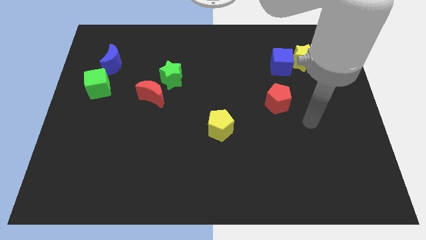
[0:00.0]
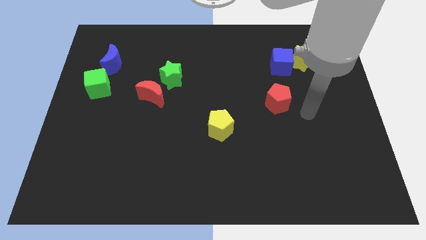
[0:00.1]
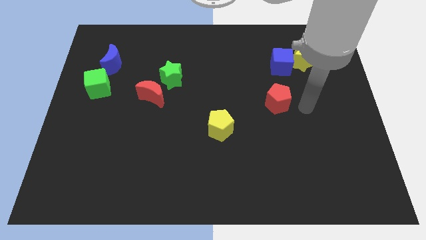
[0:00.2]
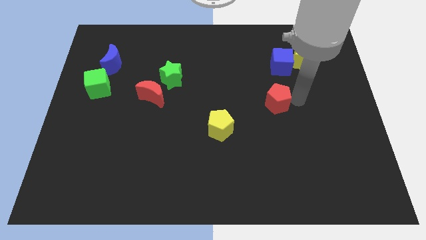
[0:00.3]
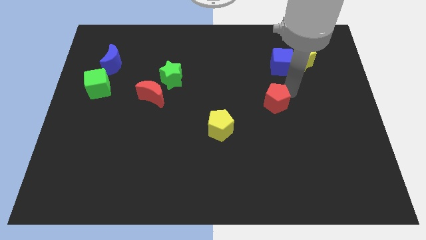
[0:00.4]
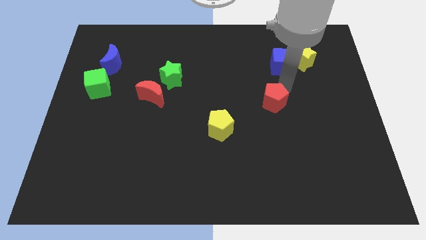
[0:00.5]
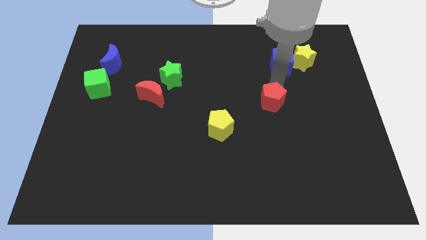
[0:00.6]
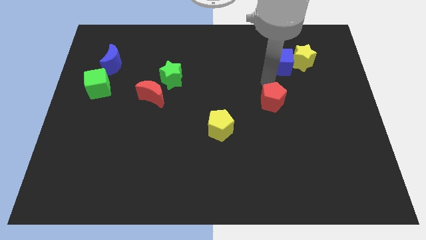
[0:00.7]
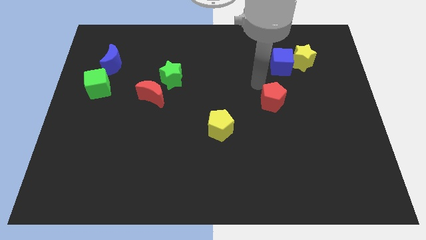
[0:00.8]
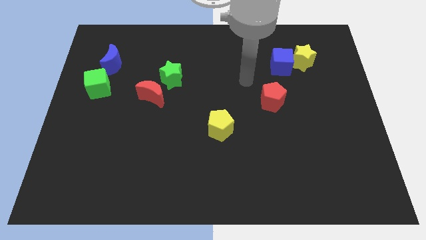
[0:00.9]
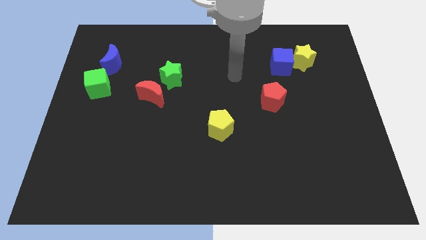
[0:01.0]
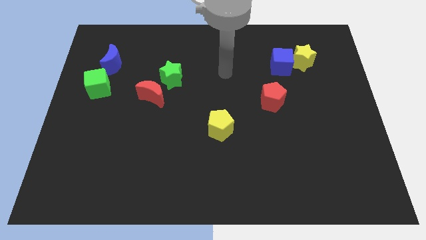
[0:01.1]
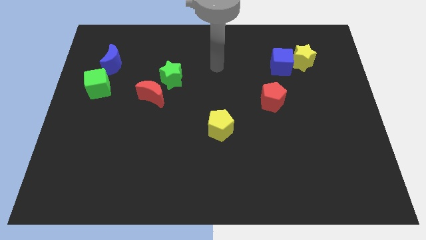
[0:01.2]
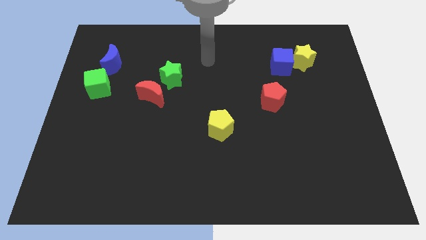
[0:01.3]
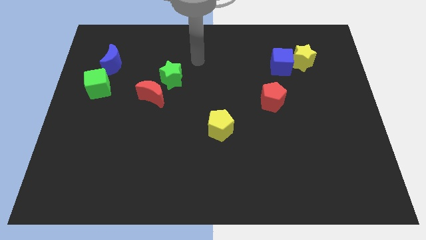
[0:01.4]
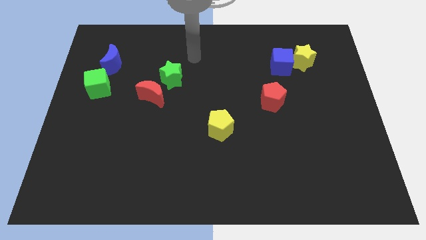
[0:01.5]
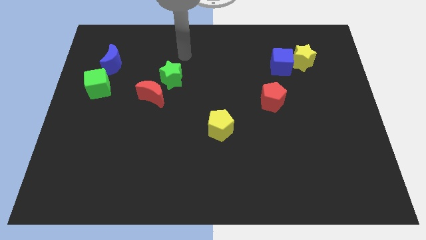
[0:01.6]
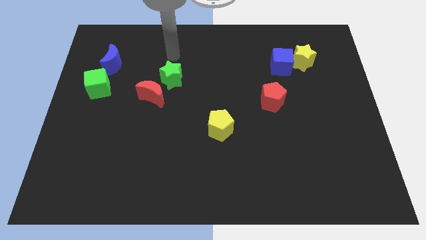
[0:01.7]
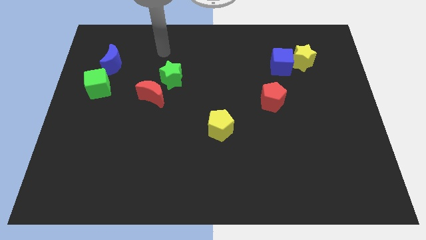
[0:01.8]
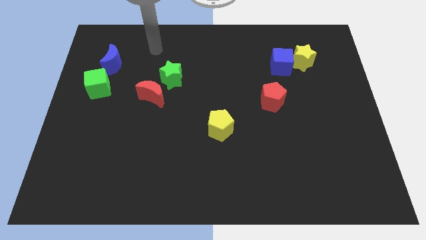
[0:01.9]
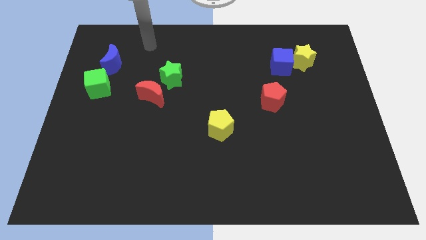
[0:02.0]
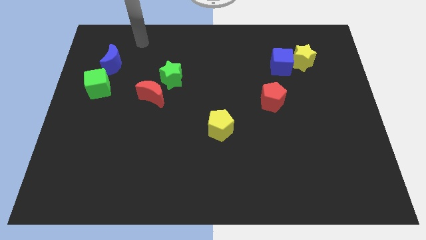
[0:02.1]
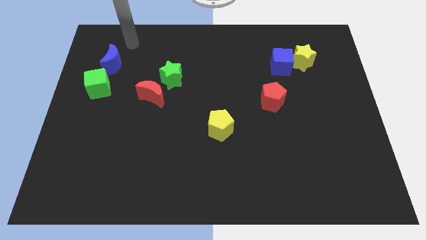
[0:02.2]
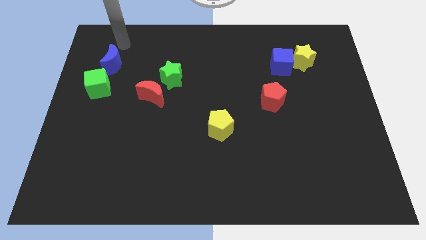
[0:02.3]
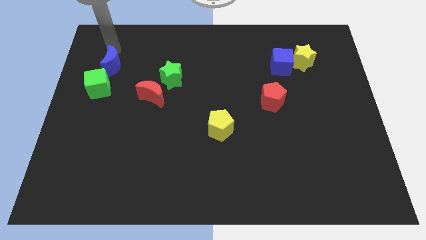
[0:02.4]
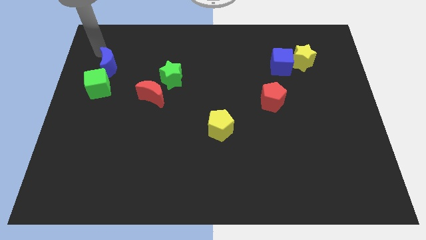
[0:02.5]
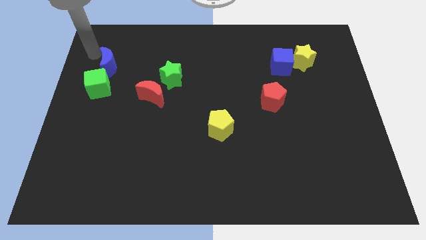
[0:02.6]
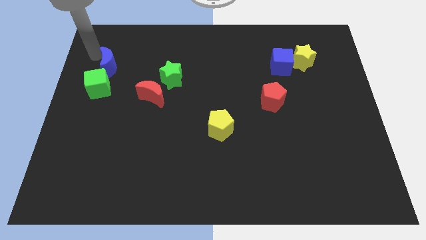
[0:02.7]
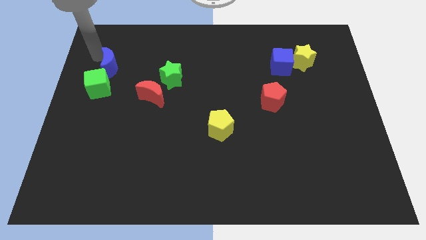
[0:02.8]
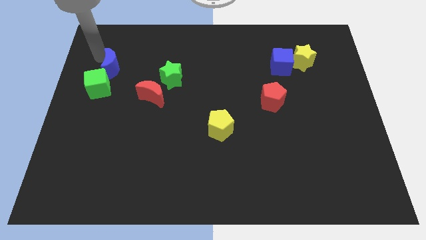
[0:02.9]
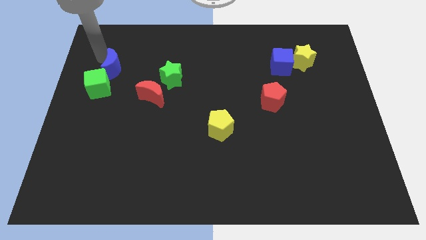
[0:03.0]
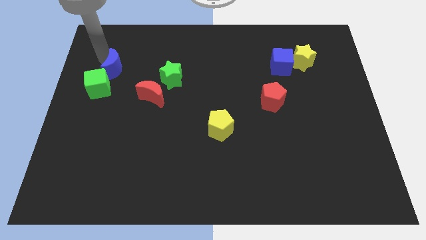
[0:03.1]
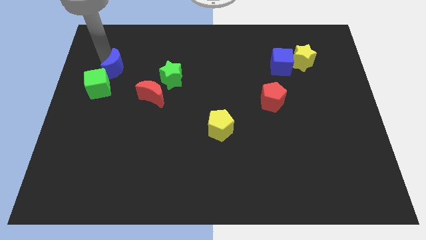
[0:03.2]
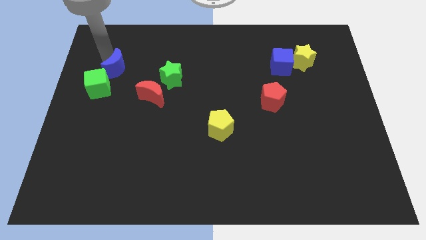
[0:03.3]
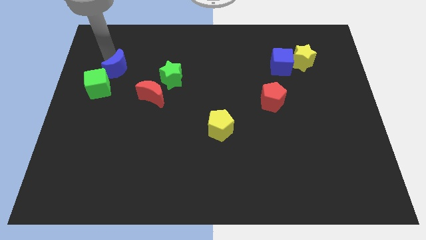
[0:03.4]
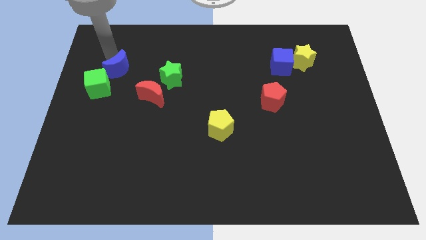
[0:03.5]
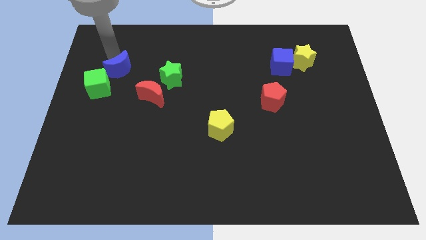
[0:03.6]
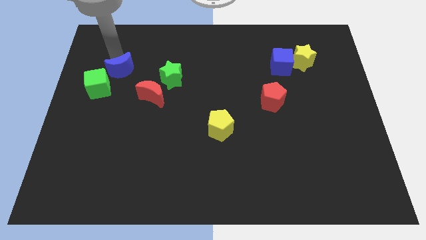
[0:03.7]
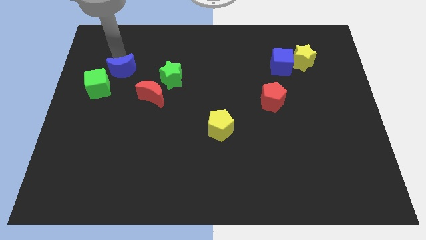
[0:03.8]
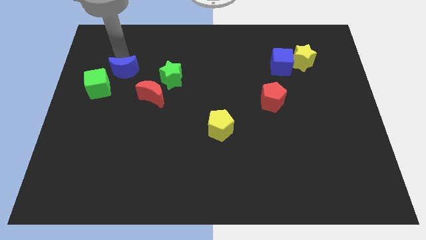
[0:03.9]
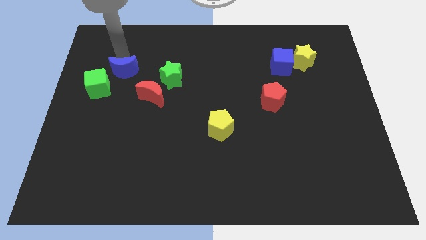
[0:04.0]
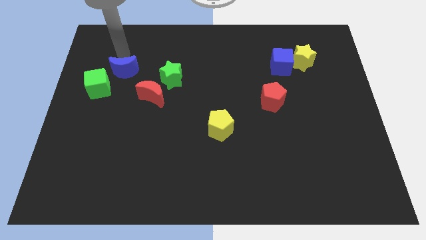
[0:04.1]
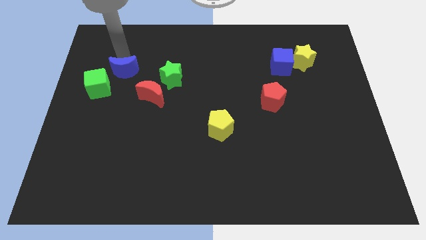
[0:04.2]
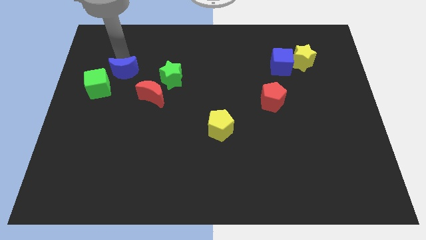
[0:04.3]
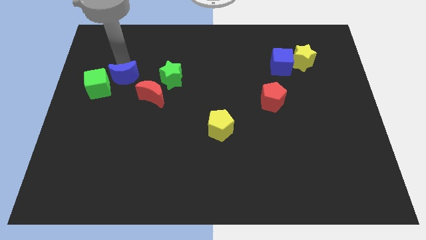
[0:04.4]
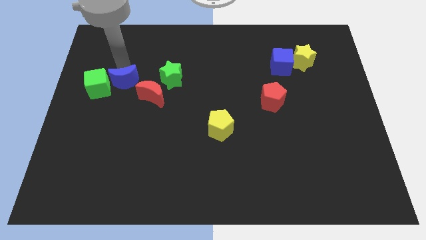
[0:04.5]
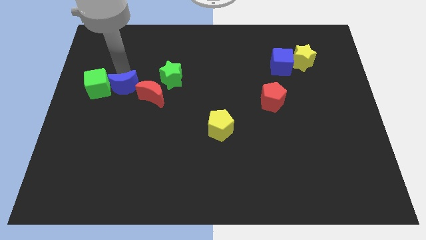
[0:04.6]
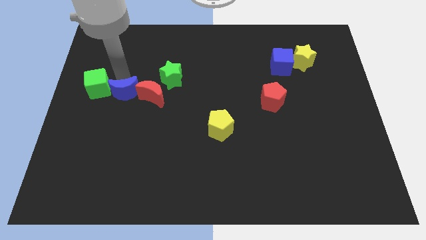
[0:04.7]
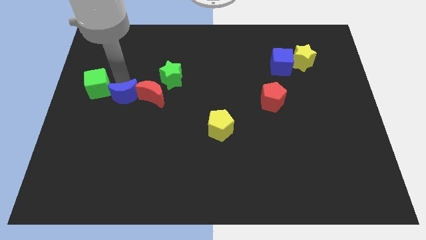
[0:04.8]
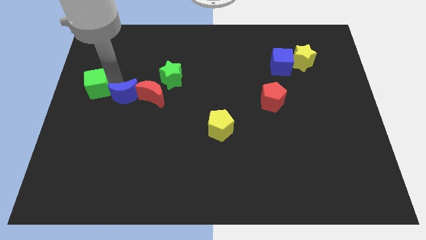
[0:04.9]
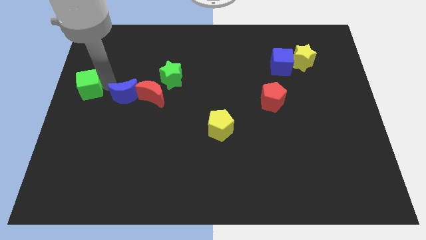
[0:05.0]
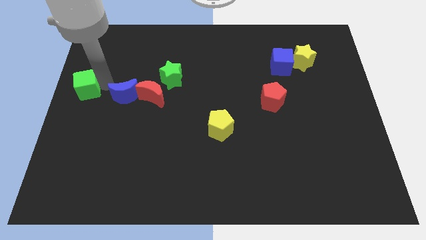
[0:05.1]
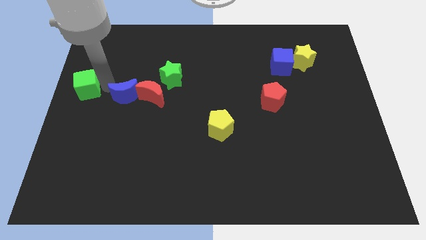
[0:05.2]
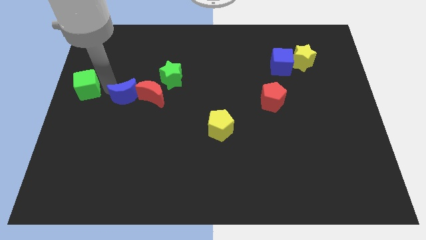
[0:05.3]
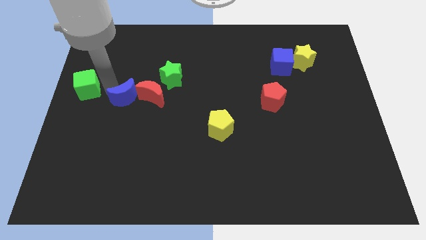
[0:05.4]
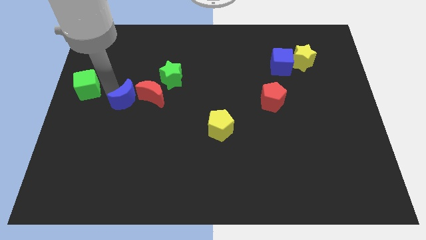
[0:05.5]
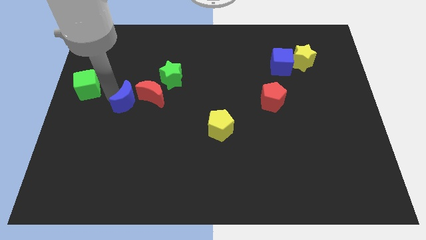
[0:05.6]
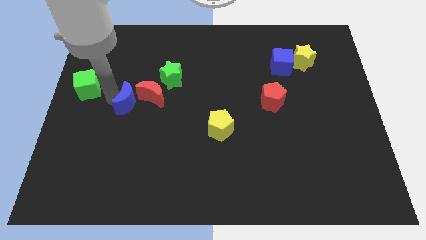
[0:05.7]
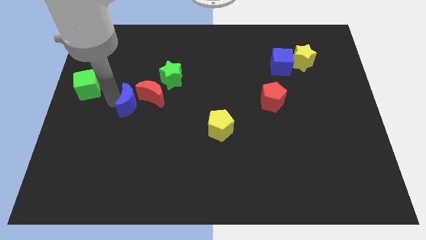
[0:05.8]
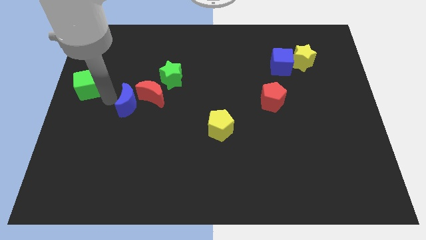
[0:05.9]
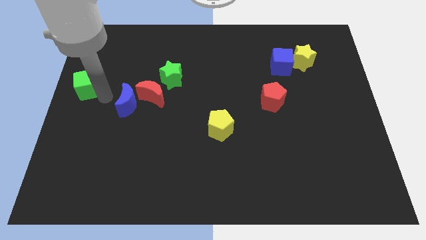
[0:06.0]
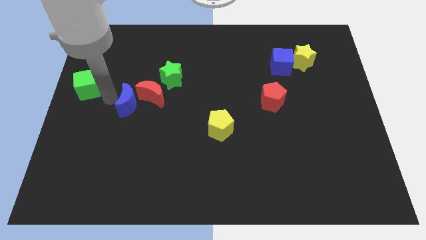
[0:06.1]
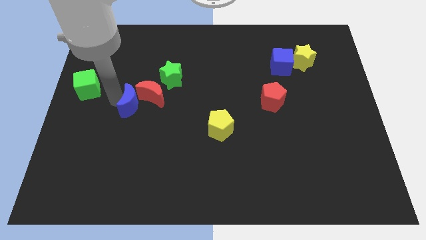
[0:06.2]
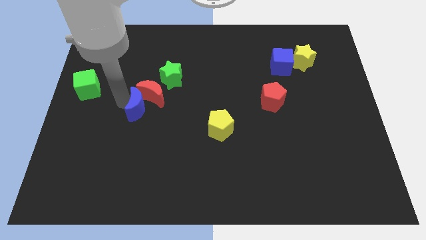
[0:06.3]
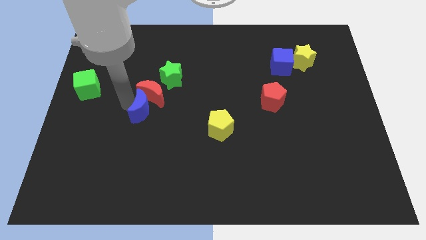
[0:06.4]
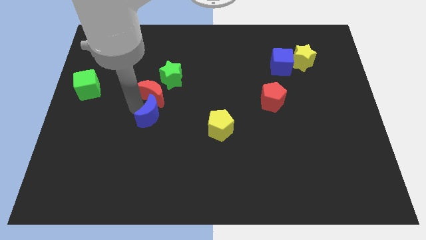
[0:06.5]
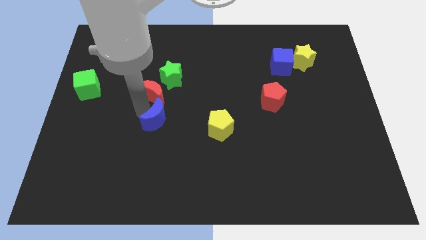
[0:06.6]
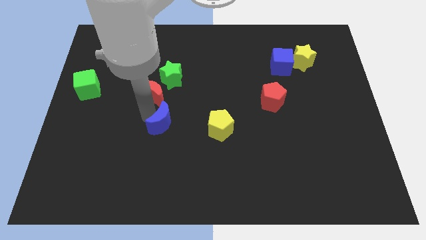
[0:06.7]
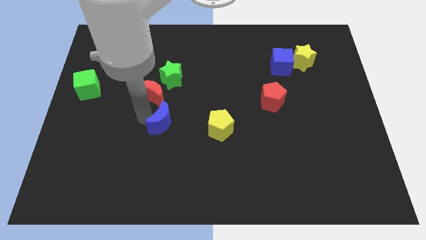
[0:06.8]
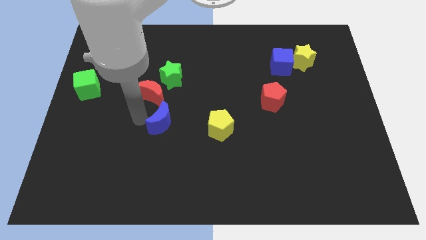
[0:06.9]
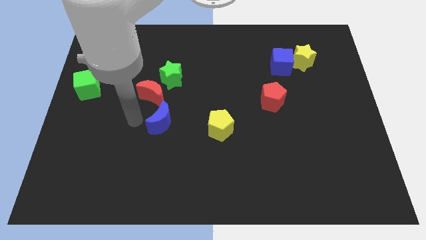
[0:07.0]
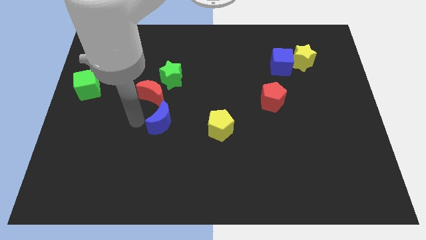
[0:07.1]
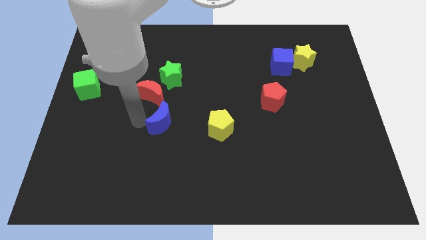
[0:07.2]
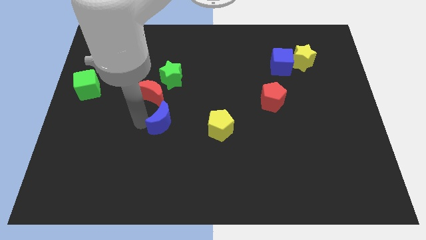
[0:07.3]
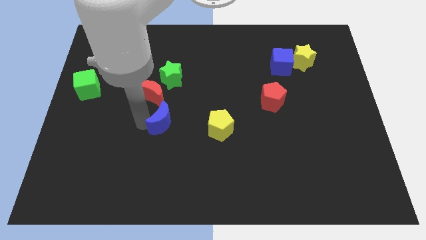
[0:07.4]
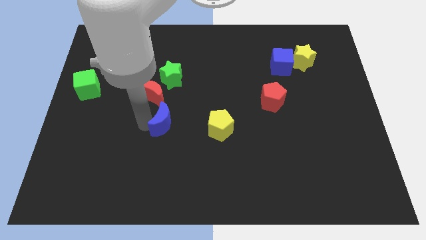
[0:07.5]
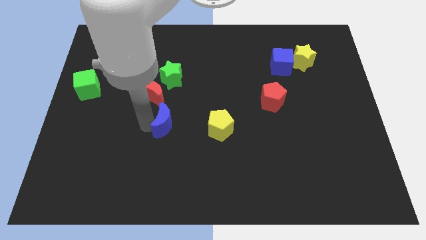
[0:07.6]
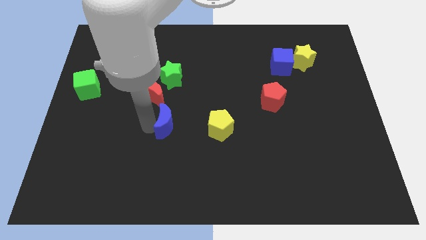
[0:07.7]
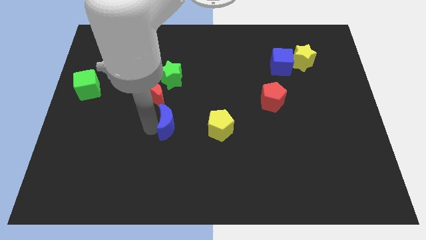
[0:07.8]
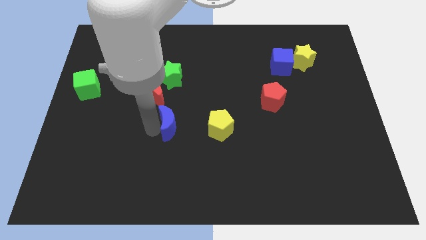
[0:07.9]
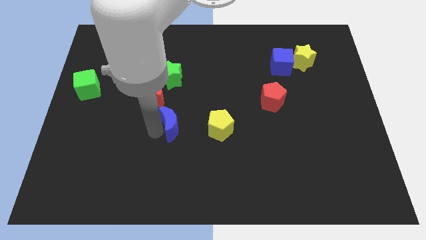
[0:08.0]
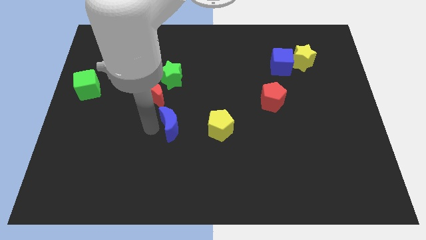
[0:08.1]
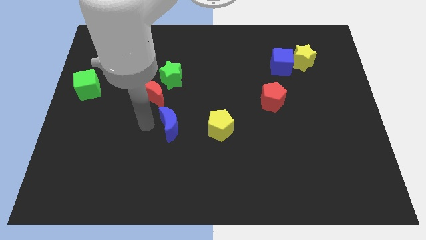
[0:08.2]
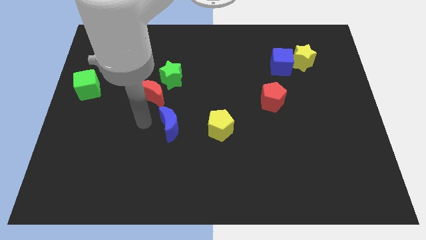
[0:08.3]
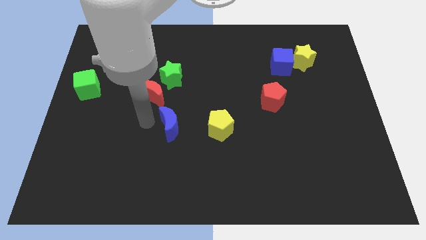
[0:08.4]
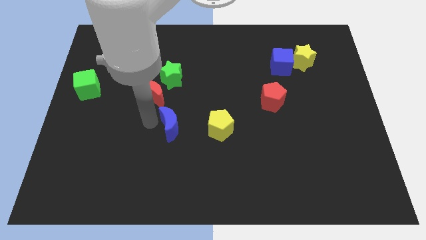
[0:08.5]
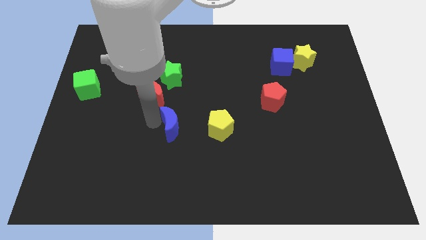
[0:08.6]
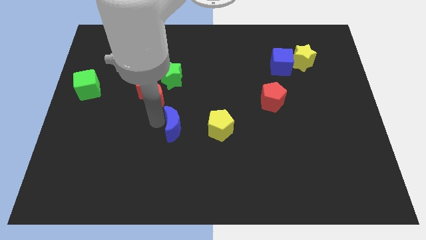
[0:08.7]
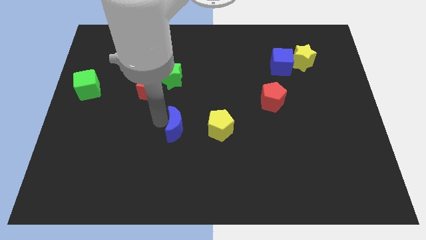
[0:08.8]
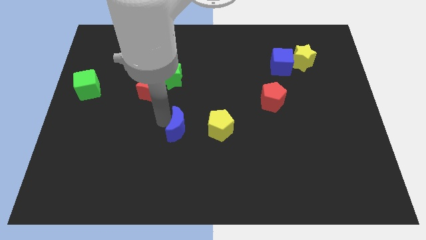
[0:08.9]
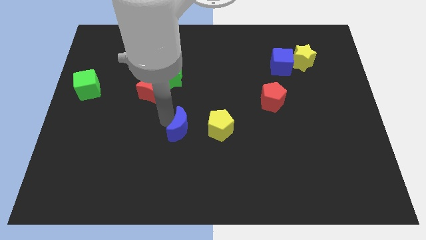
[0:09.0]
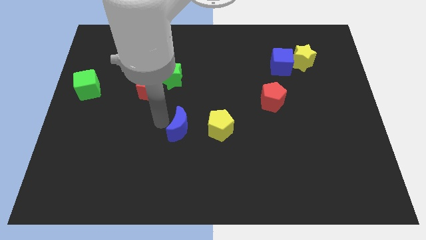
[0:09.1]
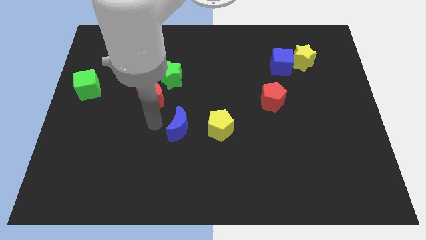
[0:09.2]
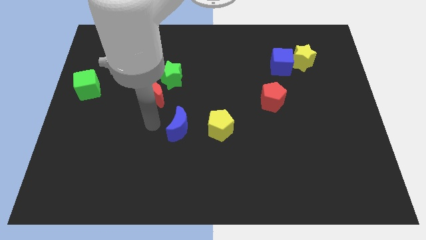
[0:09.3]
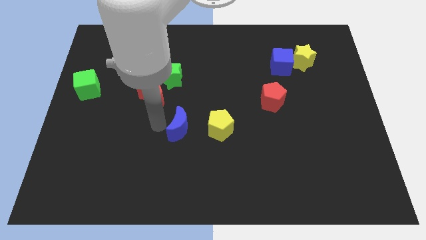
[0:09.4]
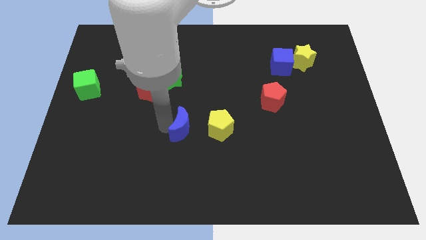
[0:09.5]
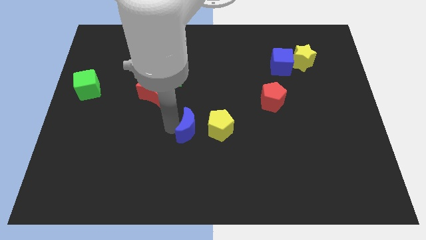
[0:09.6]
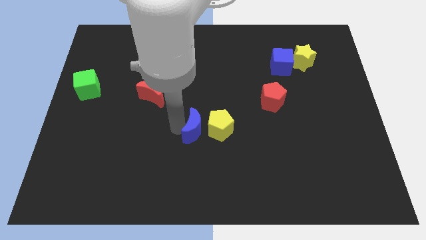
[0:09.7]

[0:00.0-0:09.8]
push the blue moon towards the yellow pentagon
